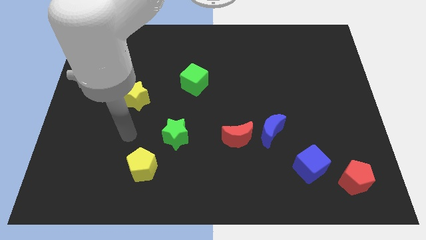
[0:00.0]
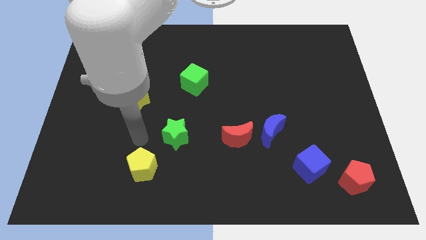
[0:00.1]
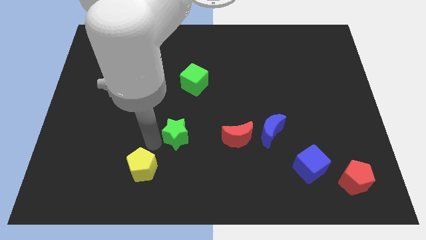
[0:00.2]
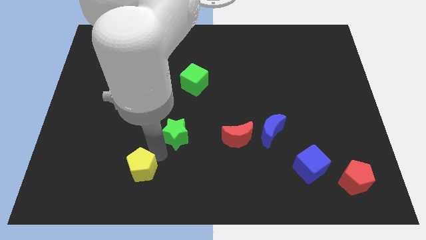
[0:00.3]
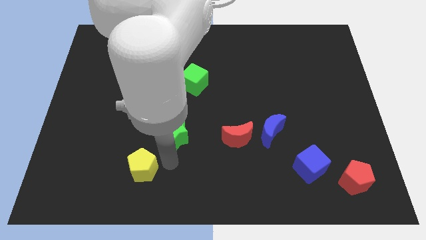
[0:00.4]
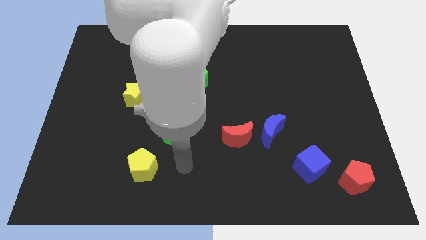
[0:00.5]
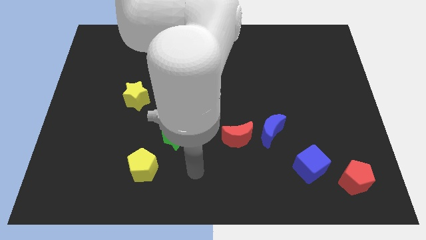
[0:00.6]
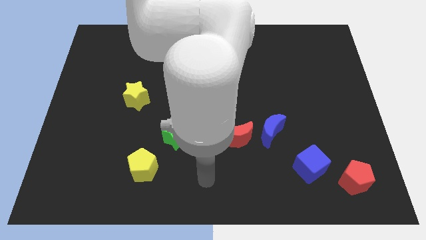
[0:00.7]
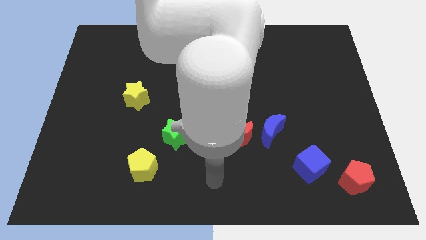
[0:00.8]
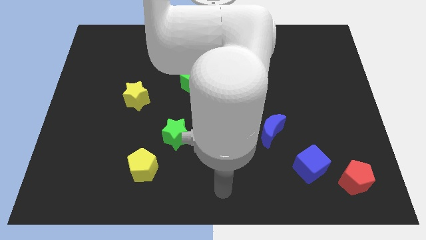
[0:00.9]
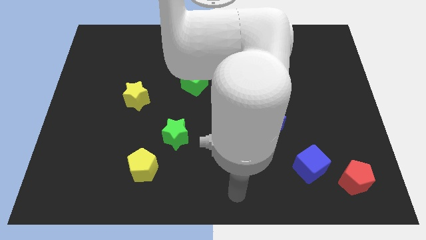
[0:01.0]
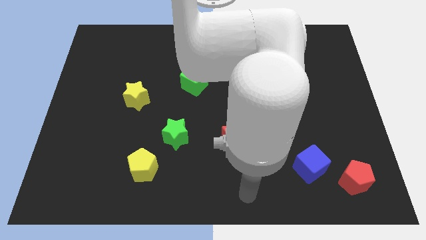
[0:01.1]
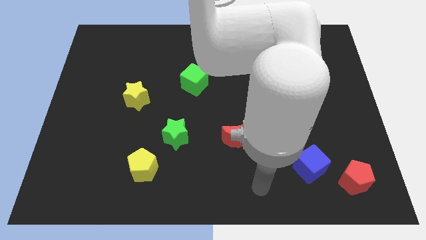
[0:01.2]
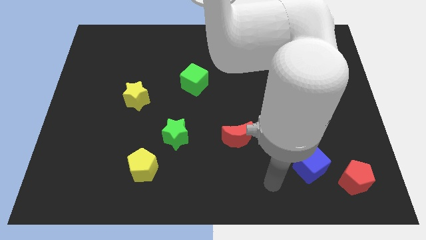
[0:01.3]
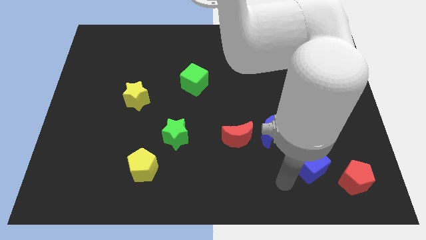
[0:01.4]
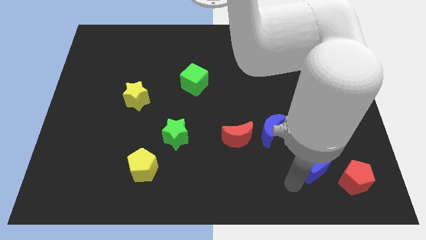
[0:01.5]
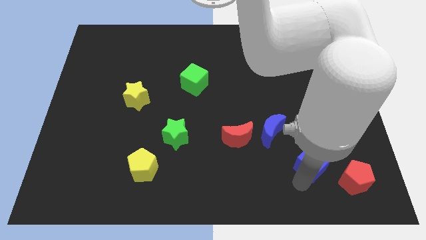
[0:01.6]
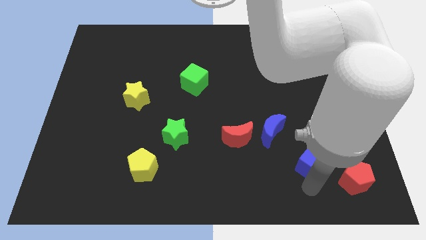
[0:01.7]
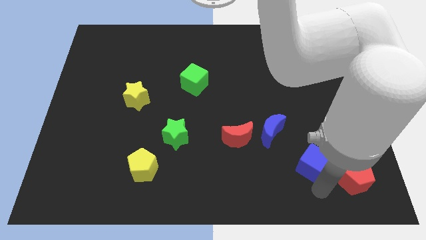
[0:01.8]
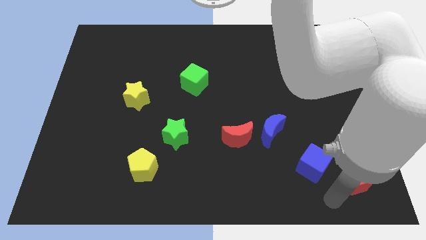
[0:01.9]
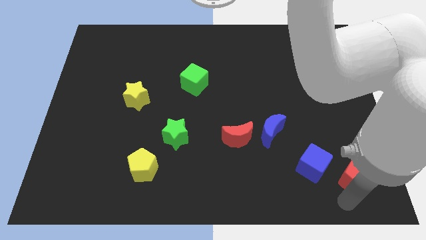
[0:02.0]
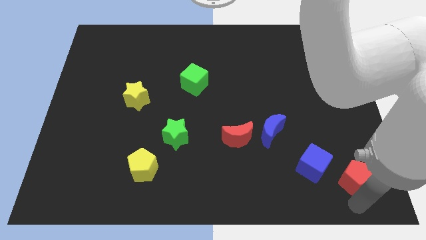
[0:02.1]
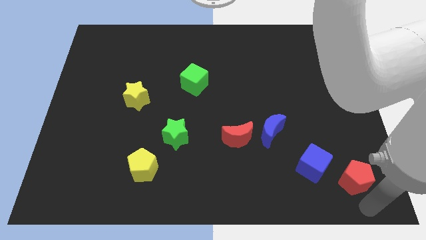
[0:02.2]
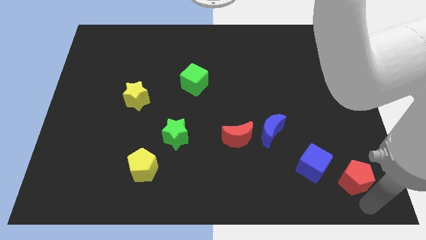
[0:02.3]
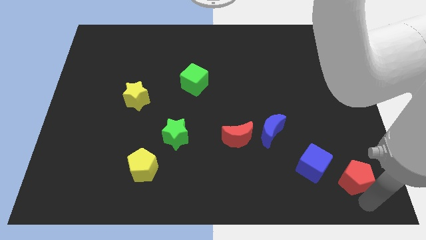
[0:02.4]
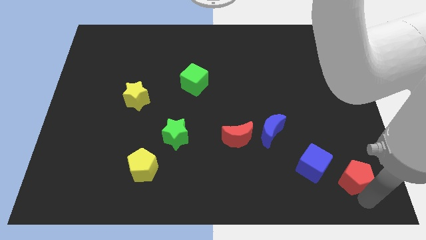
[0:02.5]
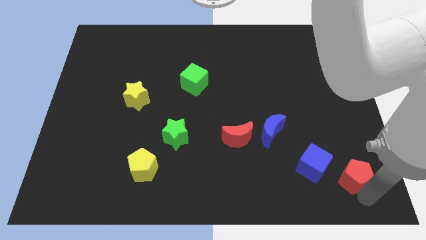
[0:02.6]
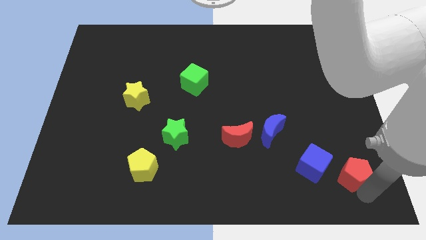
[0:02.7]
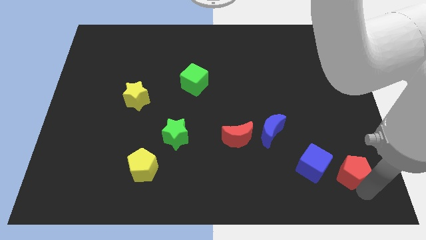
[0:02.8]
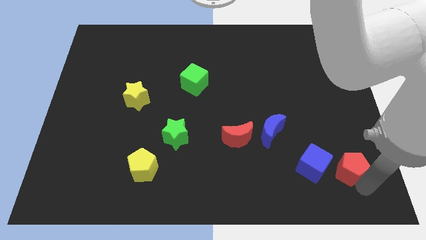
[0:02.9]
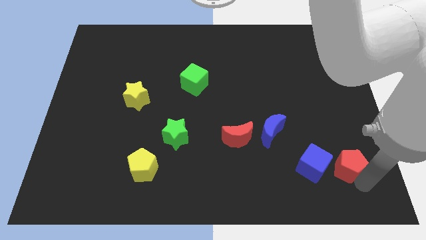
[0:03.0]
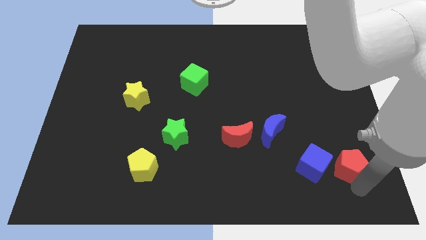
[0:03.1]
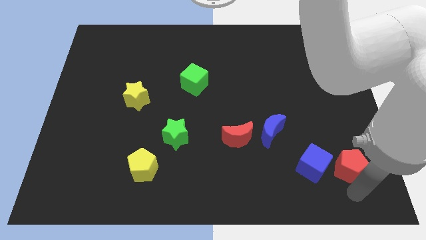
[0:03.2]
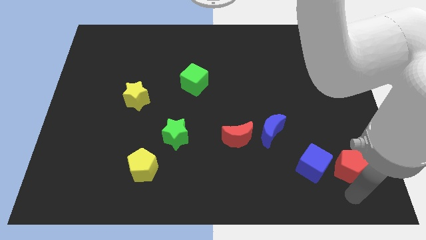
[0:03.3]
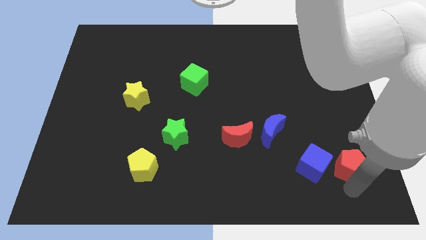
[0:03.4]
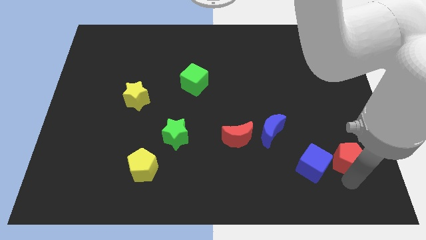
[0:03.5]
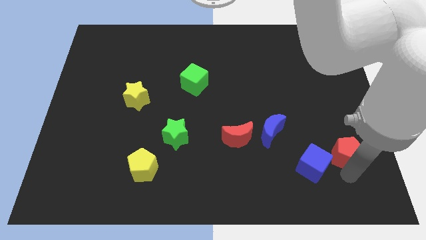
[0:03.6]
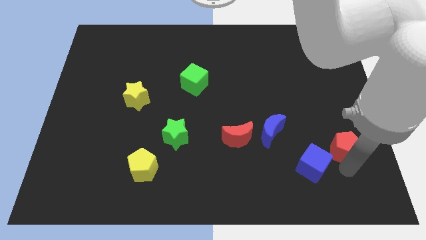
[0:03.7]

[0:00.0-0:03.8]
slightly push the red pentagon upwards

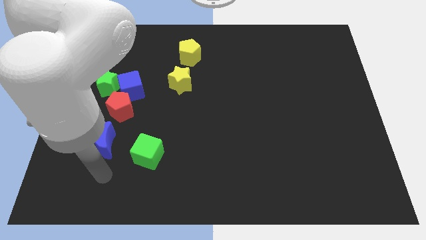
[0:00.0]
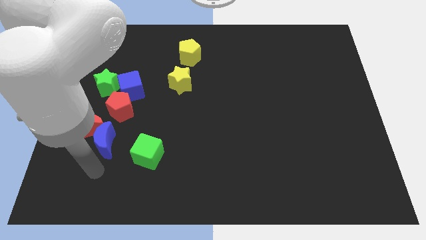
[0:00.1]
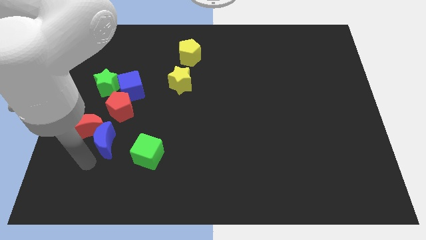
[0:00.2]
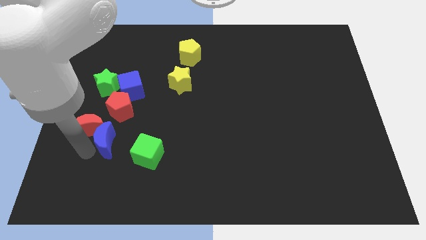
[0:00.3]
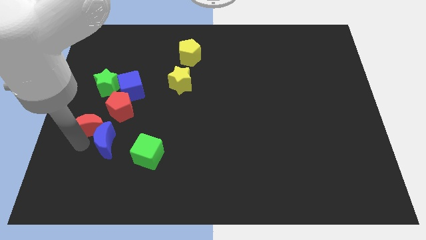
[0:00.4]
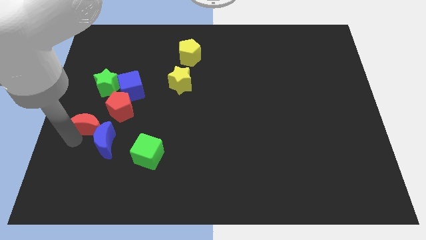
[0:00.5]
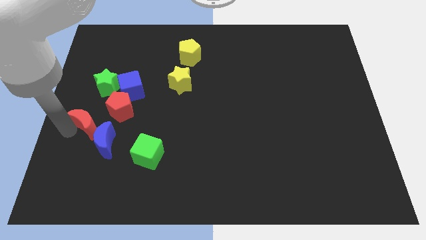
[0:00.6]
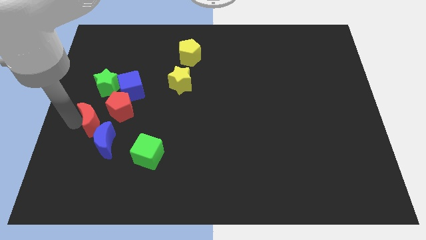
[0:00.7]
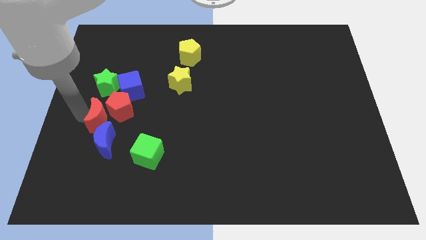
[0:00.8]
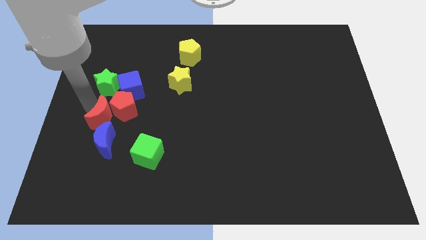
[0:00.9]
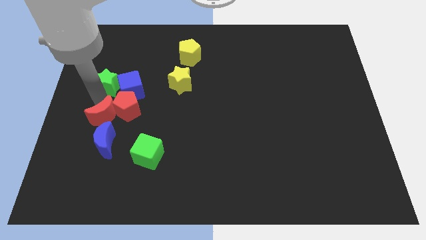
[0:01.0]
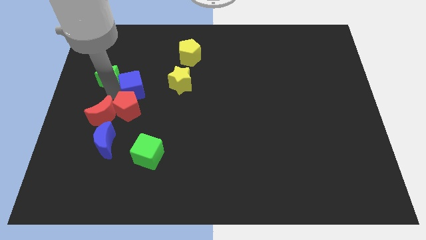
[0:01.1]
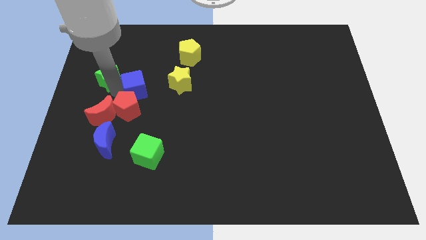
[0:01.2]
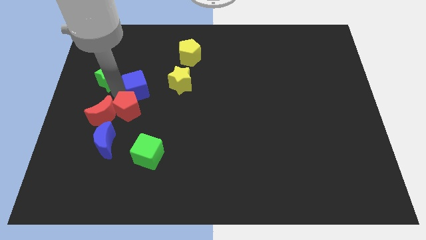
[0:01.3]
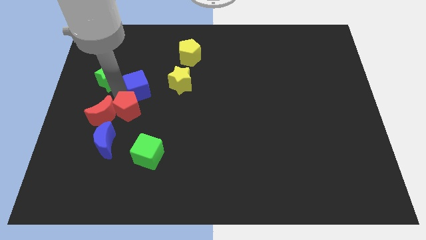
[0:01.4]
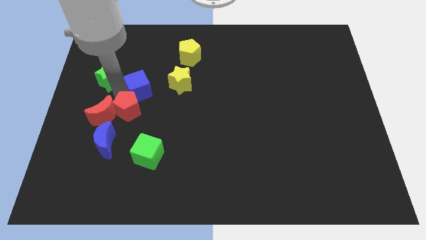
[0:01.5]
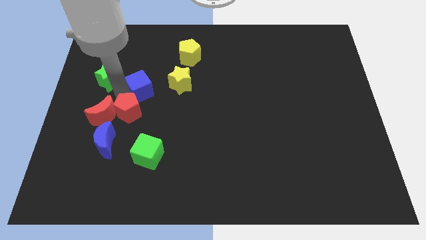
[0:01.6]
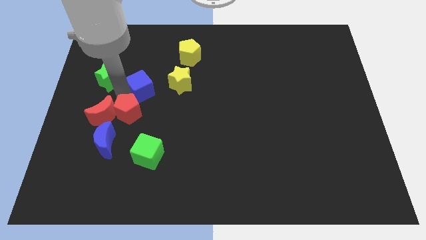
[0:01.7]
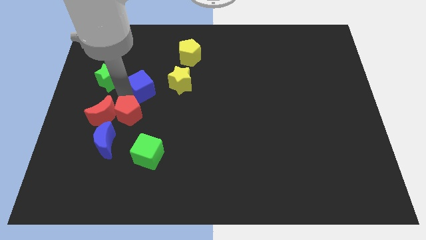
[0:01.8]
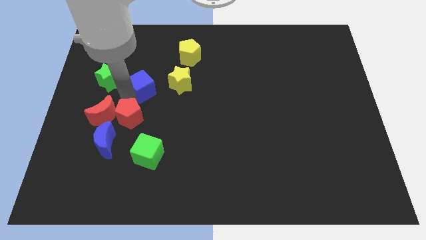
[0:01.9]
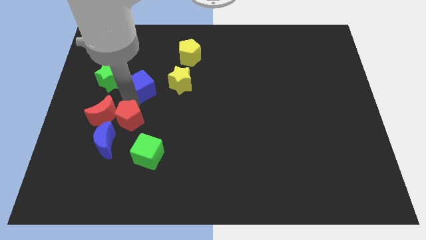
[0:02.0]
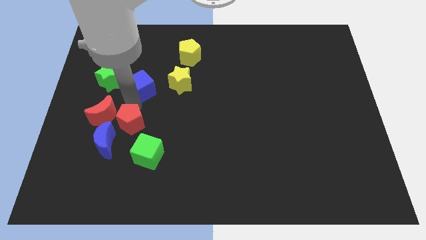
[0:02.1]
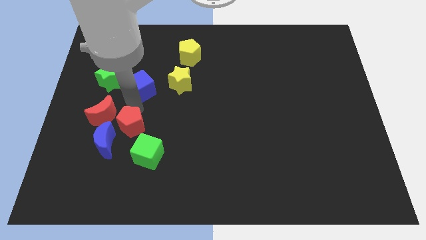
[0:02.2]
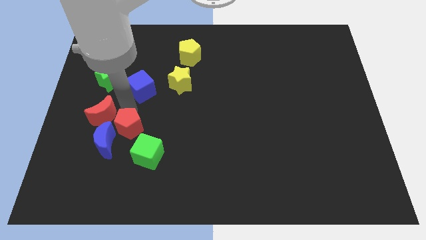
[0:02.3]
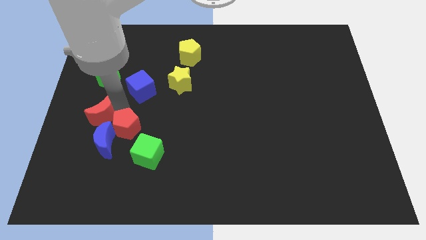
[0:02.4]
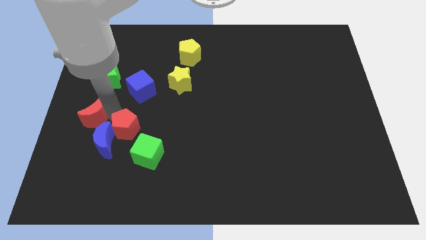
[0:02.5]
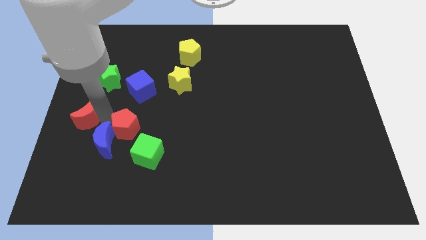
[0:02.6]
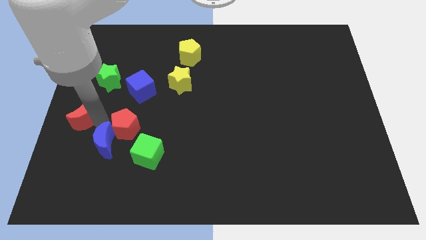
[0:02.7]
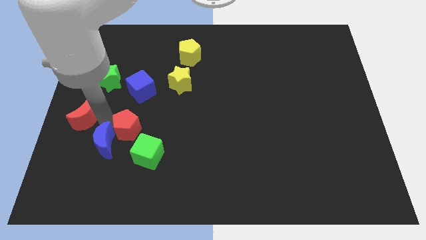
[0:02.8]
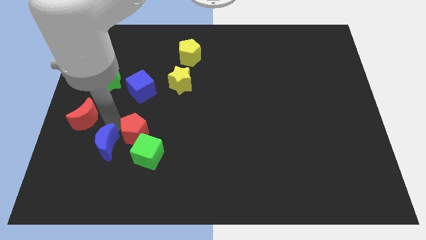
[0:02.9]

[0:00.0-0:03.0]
move the red pentagon diagonally down and right a bit

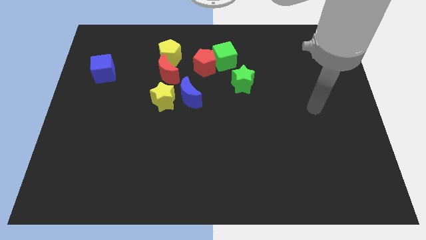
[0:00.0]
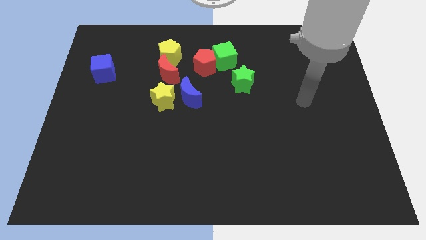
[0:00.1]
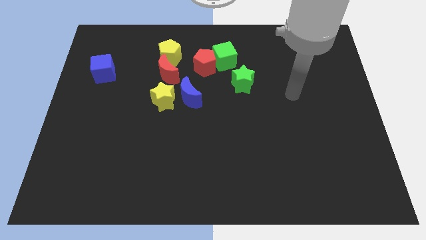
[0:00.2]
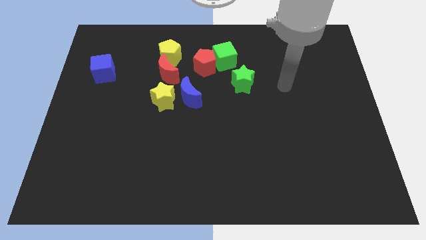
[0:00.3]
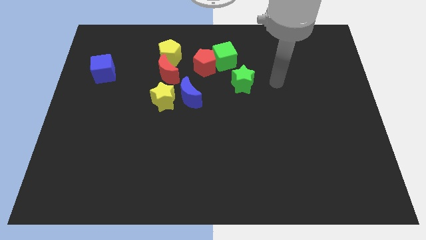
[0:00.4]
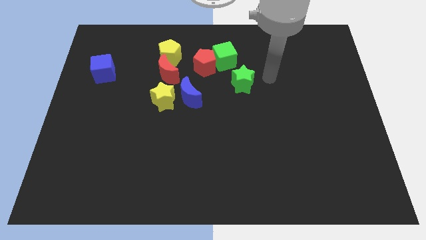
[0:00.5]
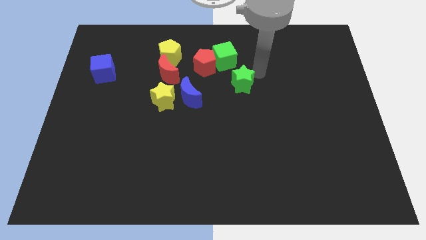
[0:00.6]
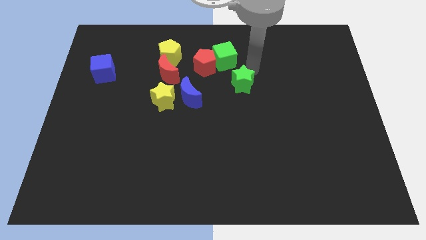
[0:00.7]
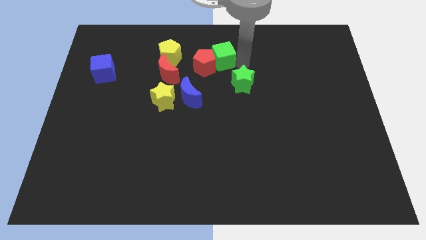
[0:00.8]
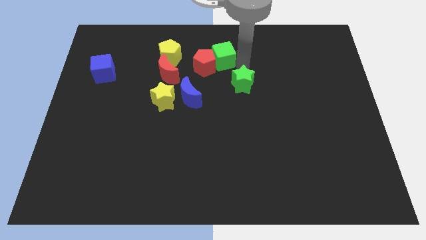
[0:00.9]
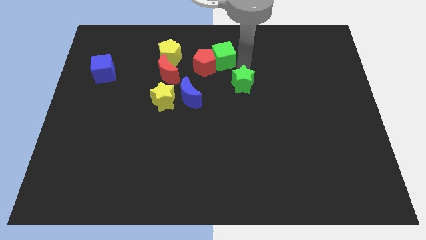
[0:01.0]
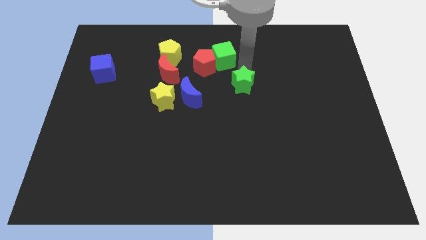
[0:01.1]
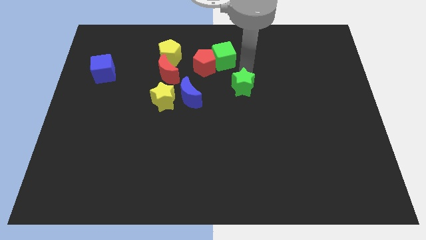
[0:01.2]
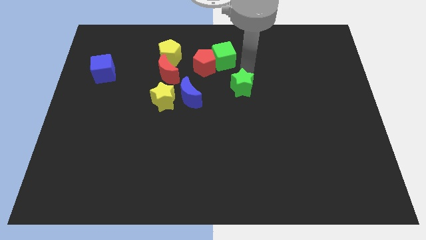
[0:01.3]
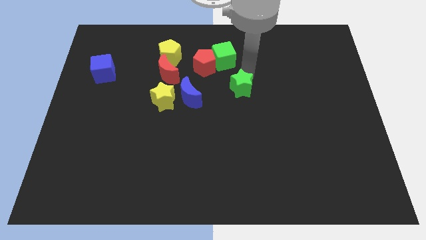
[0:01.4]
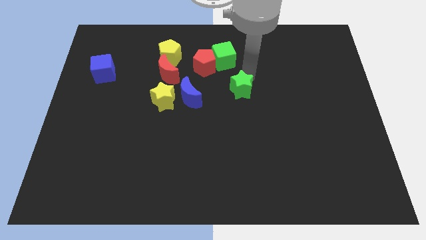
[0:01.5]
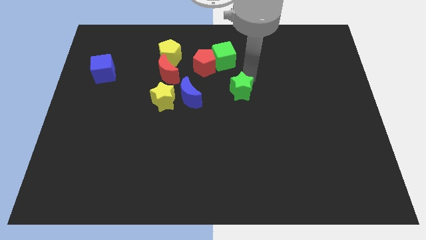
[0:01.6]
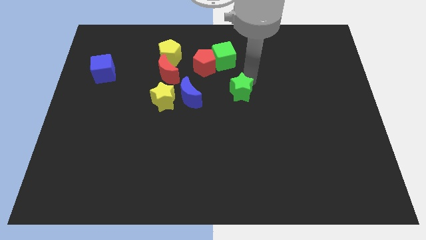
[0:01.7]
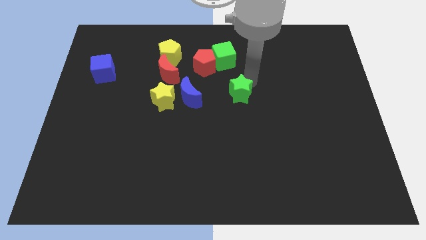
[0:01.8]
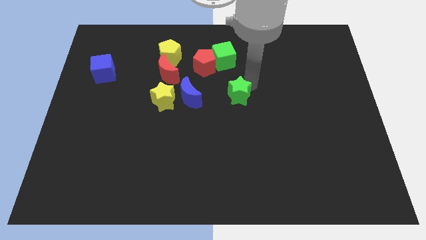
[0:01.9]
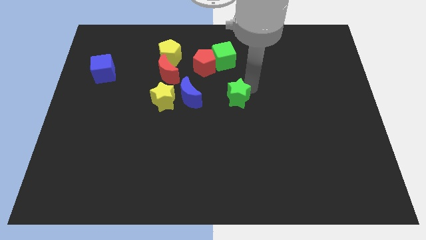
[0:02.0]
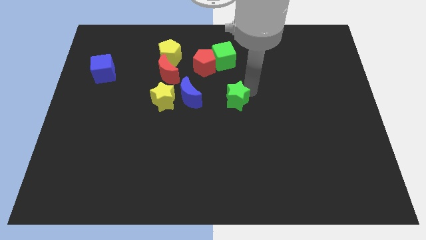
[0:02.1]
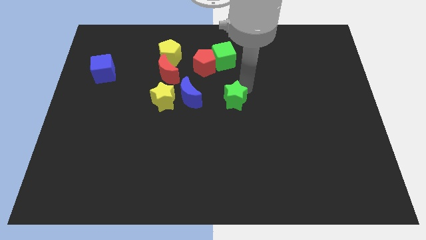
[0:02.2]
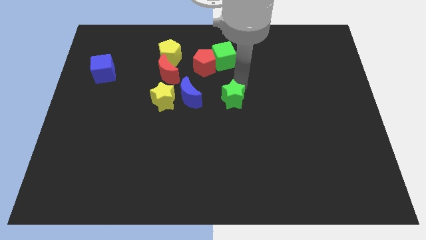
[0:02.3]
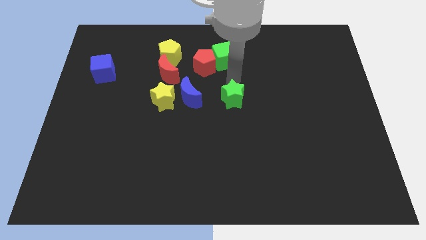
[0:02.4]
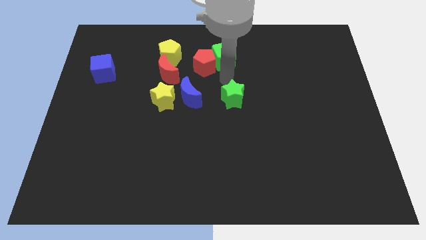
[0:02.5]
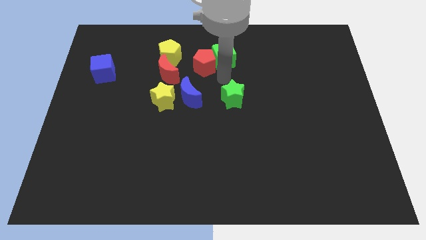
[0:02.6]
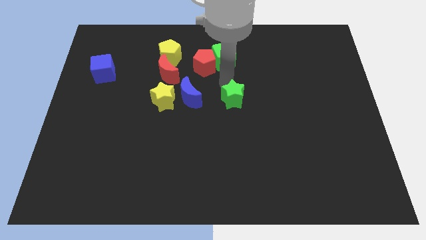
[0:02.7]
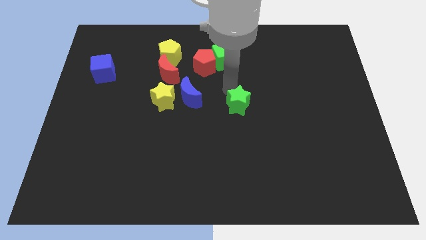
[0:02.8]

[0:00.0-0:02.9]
push the green star down a little bit
